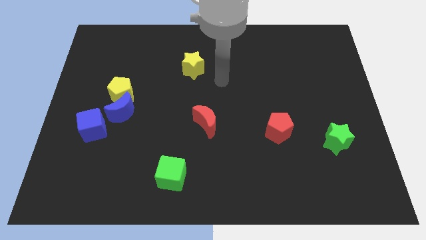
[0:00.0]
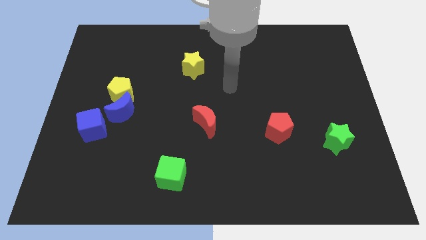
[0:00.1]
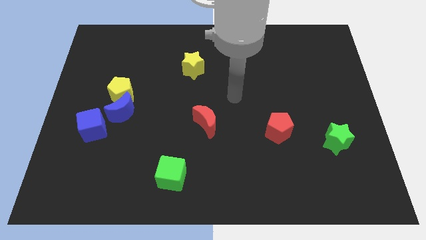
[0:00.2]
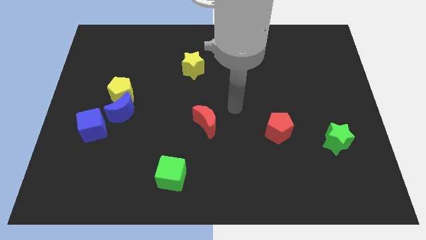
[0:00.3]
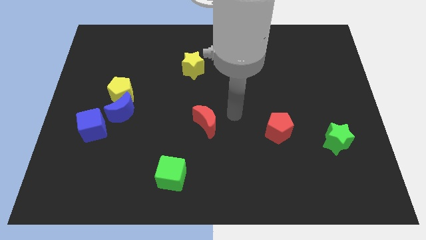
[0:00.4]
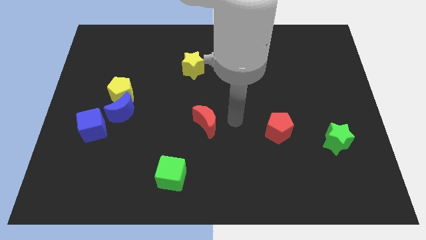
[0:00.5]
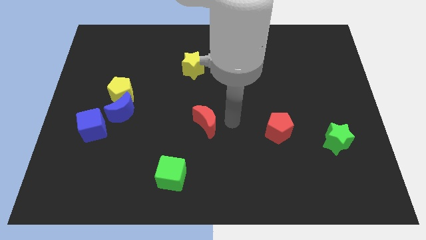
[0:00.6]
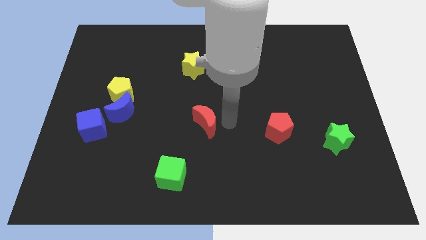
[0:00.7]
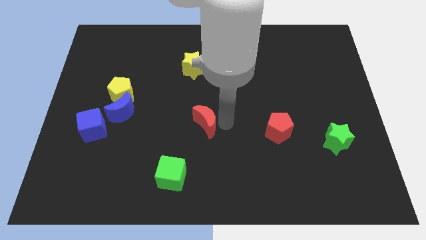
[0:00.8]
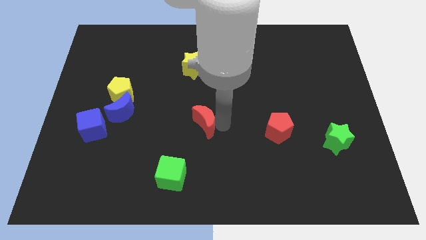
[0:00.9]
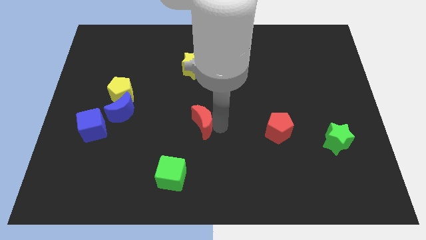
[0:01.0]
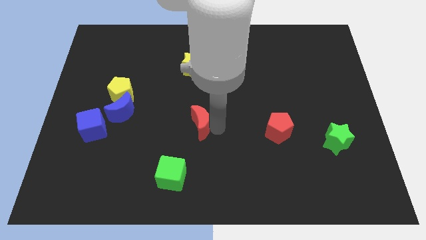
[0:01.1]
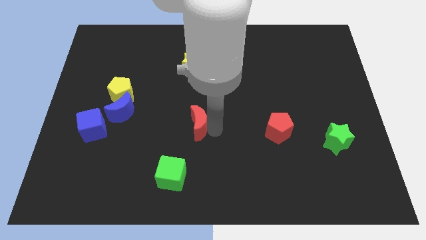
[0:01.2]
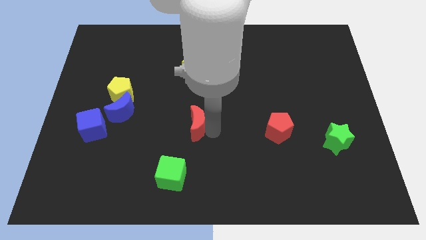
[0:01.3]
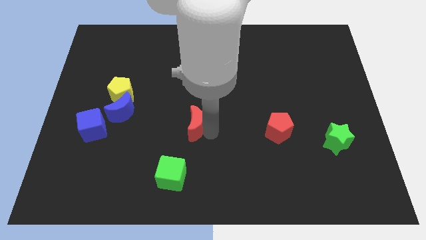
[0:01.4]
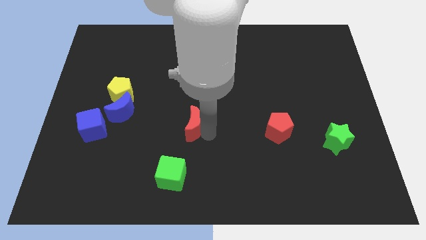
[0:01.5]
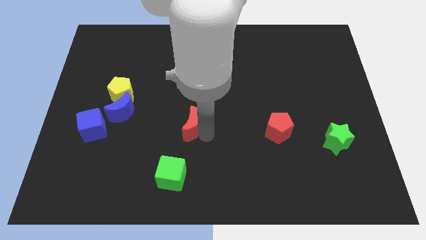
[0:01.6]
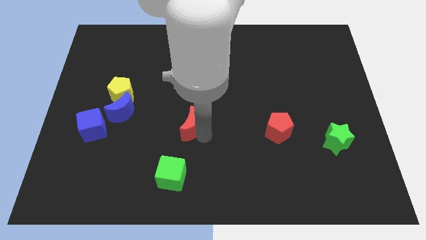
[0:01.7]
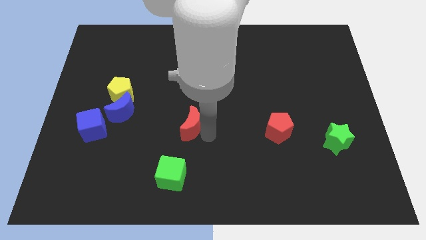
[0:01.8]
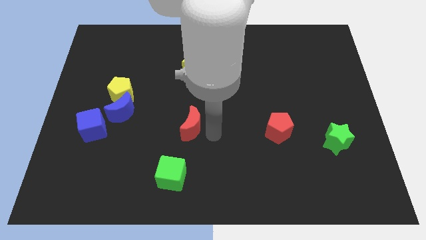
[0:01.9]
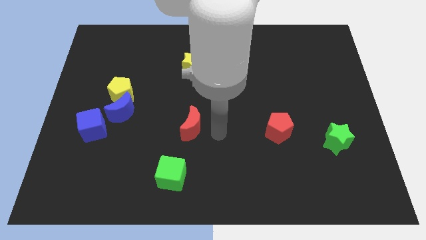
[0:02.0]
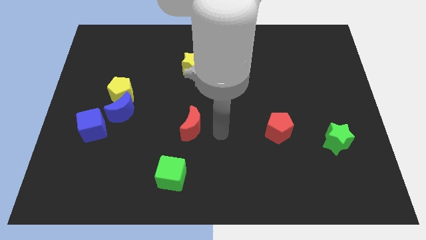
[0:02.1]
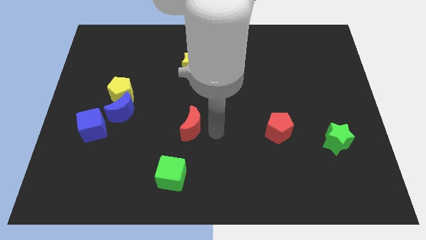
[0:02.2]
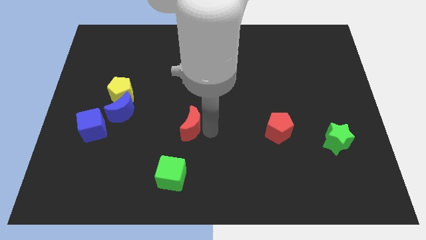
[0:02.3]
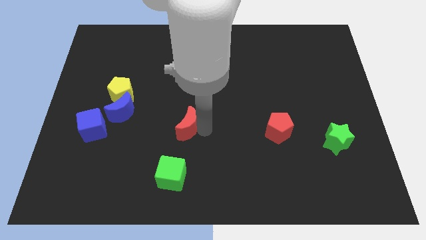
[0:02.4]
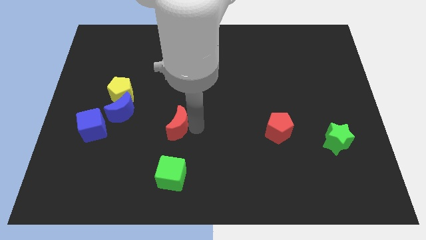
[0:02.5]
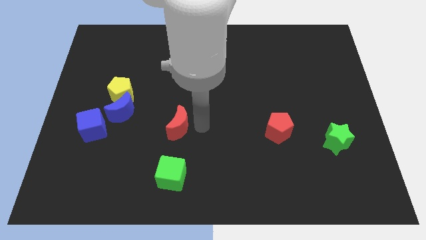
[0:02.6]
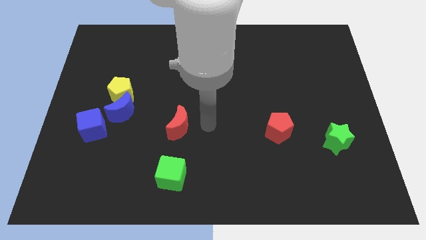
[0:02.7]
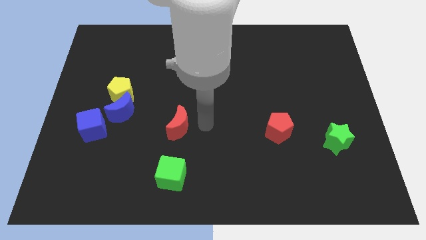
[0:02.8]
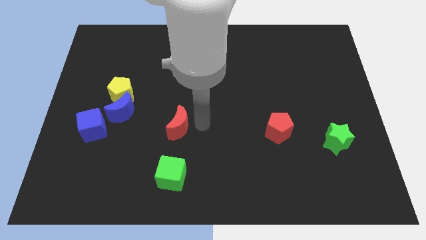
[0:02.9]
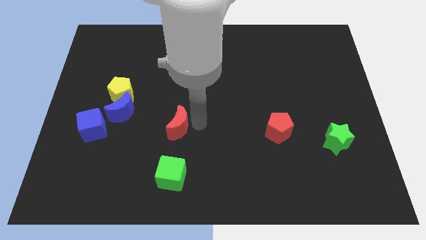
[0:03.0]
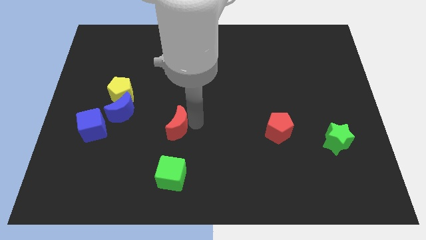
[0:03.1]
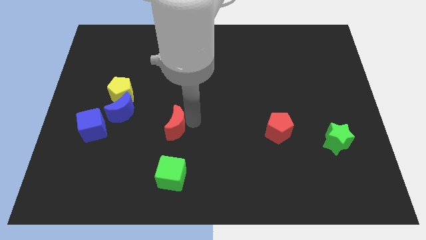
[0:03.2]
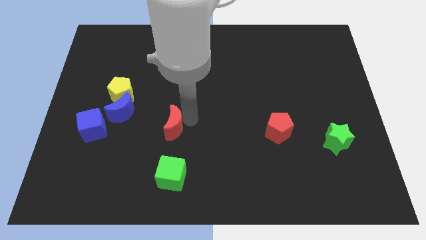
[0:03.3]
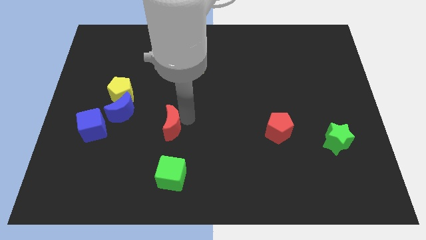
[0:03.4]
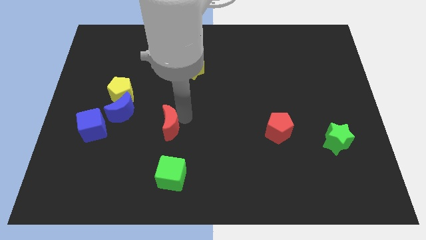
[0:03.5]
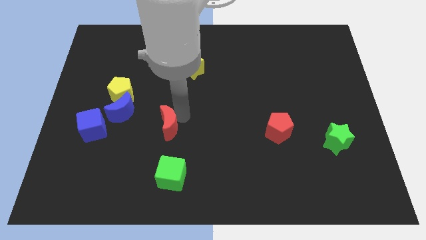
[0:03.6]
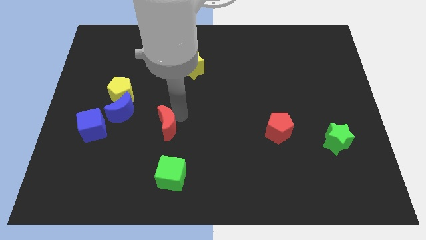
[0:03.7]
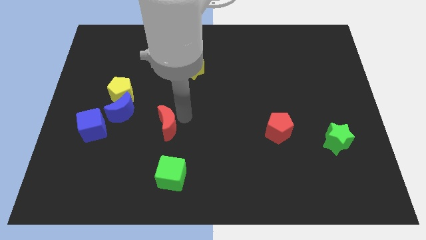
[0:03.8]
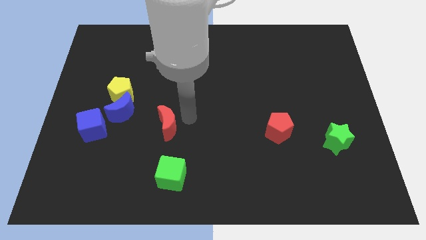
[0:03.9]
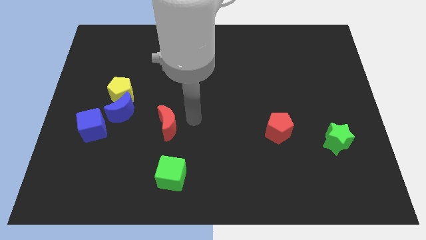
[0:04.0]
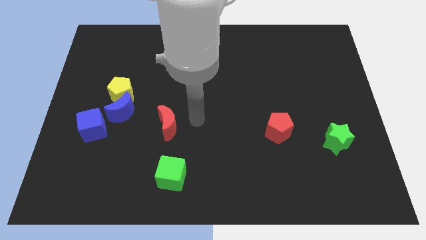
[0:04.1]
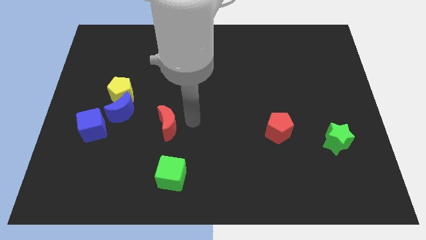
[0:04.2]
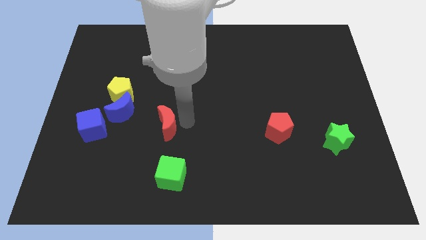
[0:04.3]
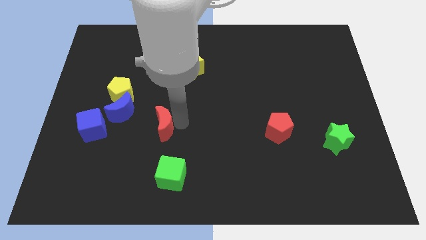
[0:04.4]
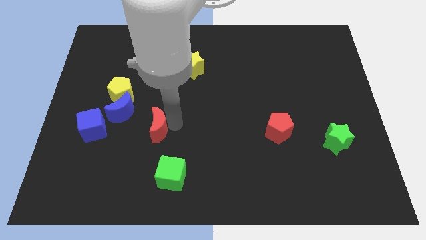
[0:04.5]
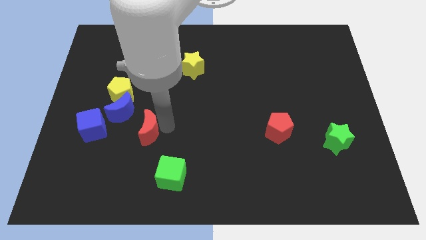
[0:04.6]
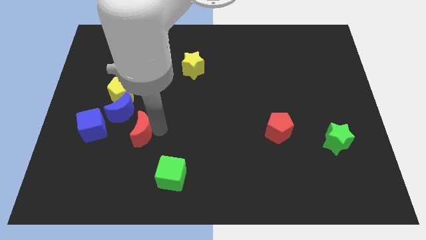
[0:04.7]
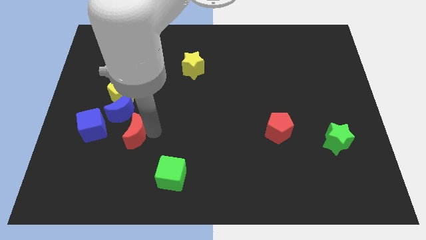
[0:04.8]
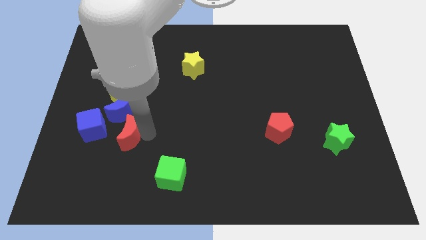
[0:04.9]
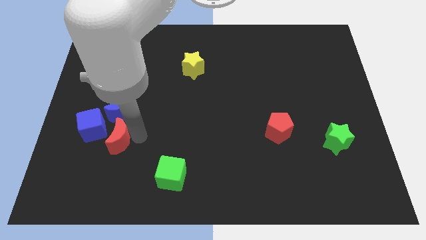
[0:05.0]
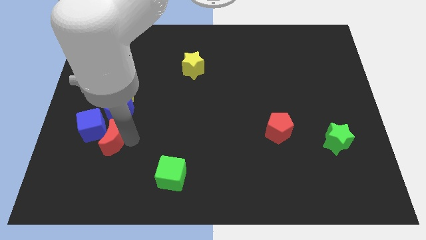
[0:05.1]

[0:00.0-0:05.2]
move the red moon to the blue cube

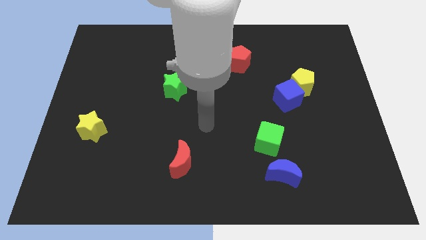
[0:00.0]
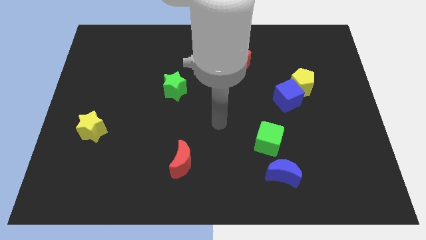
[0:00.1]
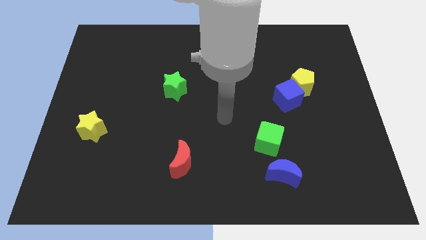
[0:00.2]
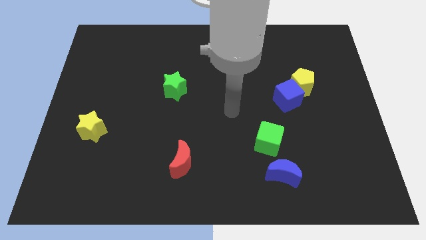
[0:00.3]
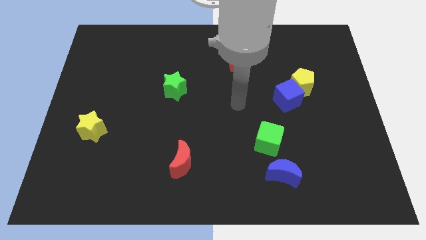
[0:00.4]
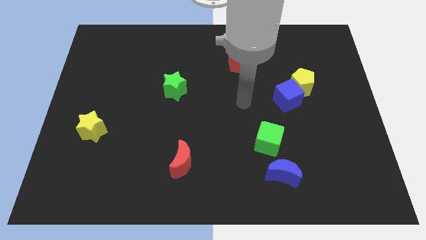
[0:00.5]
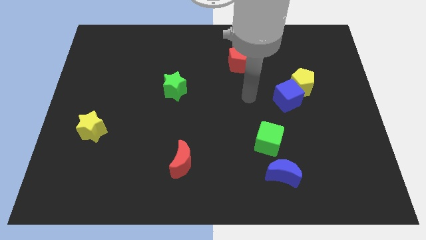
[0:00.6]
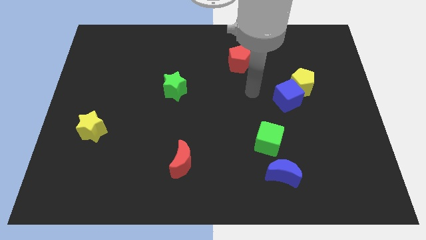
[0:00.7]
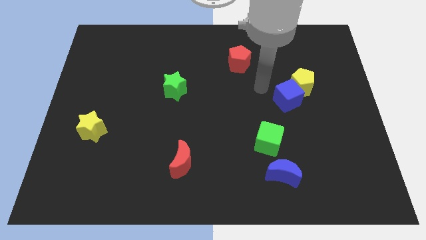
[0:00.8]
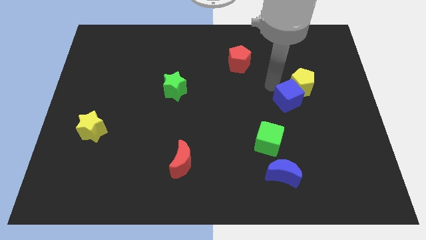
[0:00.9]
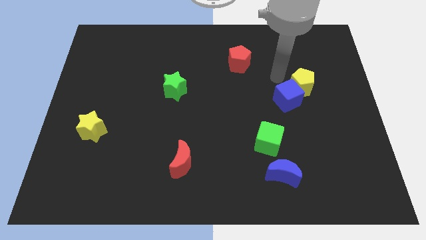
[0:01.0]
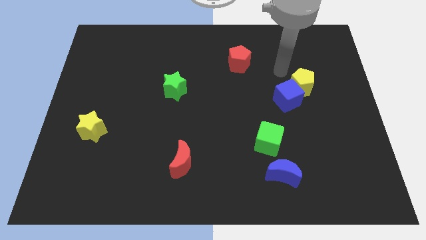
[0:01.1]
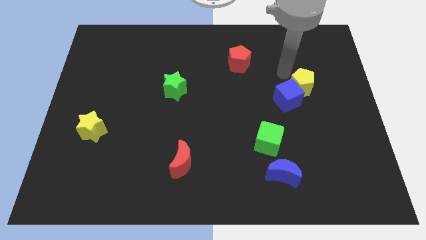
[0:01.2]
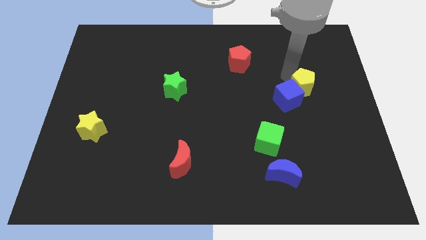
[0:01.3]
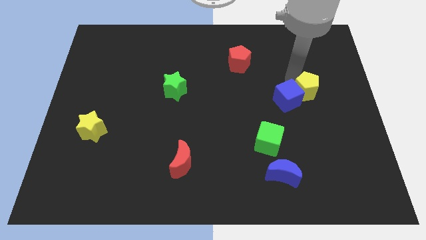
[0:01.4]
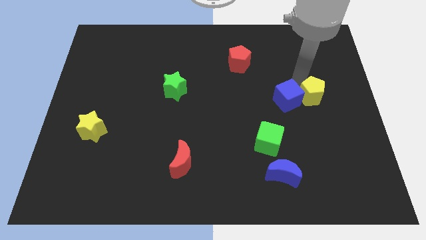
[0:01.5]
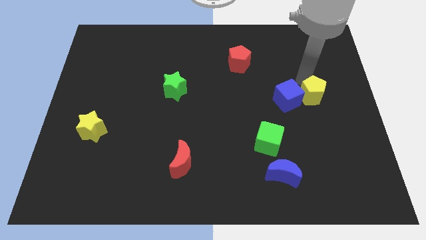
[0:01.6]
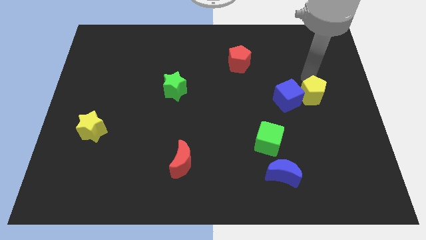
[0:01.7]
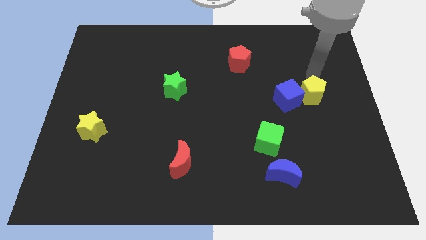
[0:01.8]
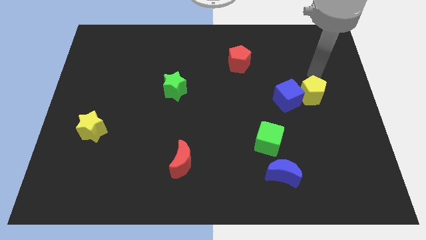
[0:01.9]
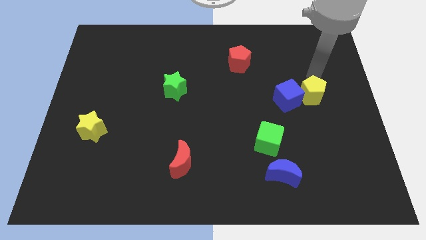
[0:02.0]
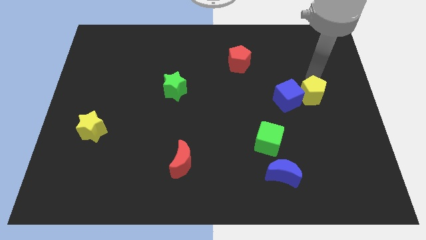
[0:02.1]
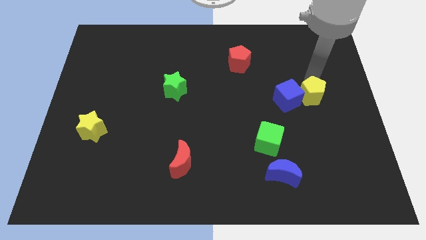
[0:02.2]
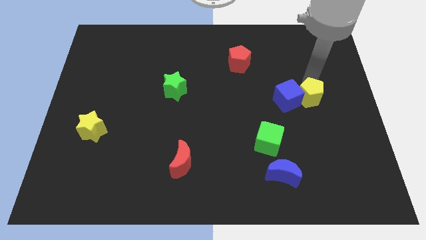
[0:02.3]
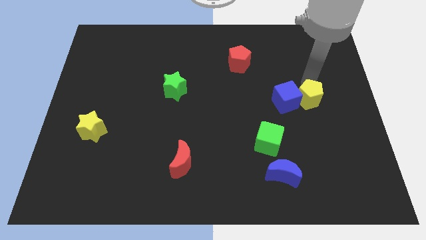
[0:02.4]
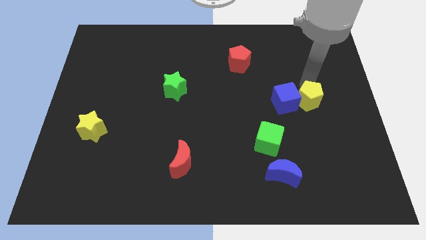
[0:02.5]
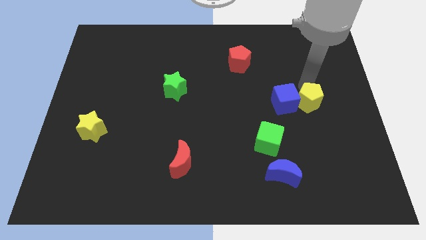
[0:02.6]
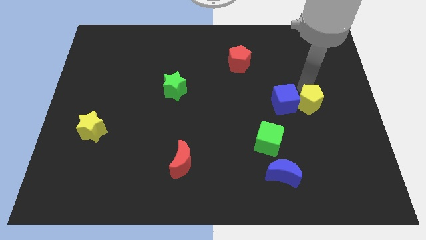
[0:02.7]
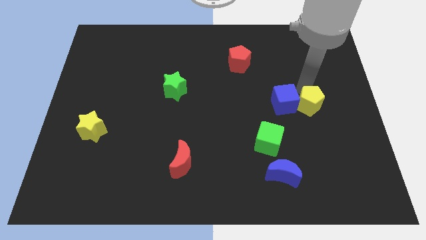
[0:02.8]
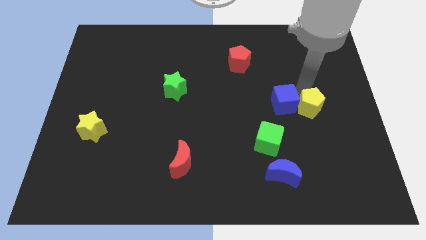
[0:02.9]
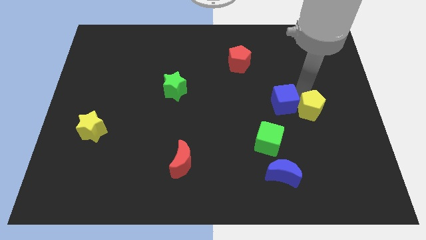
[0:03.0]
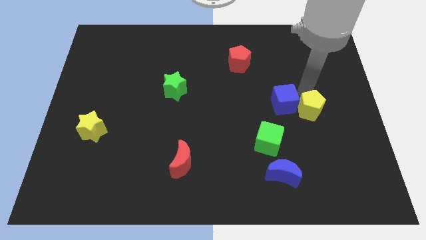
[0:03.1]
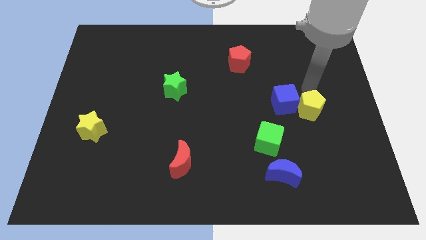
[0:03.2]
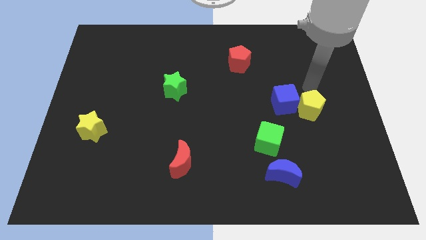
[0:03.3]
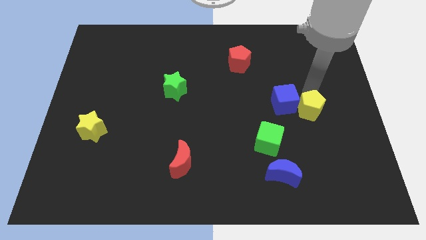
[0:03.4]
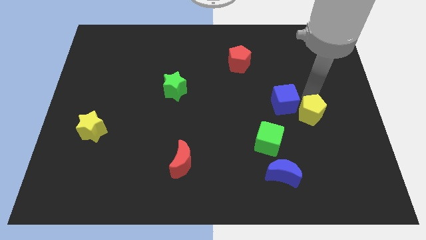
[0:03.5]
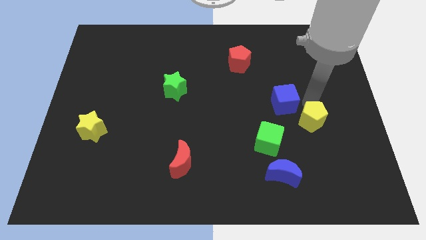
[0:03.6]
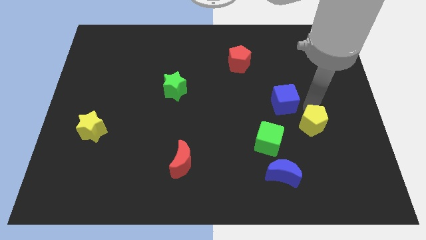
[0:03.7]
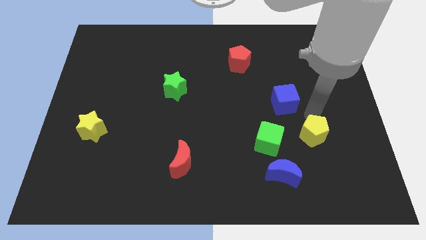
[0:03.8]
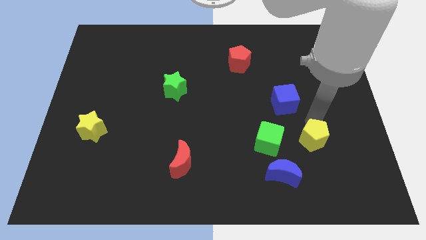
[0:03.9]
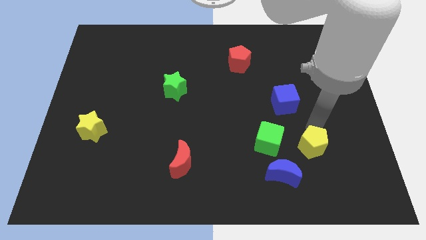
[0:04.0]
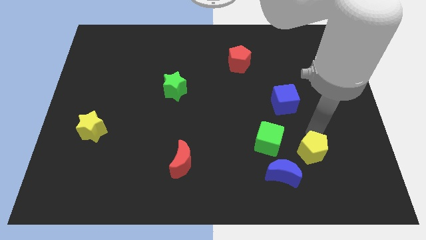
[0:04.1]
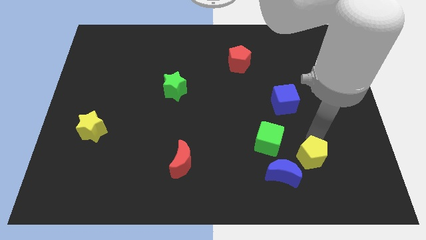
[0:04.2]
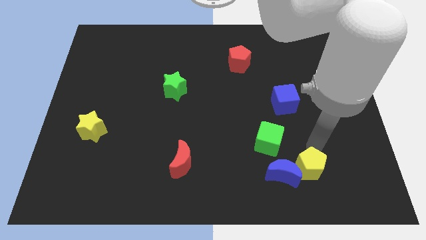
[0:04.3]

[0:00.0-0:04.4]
slide the yellow pentagon to the blue moon
